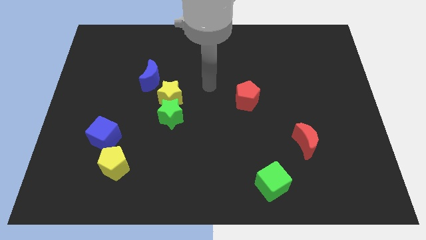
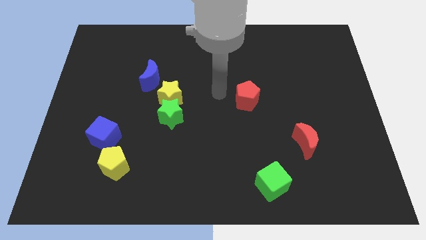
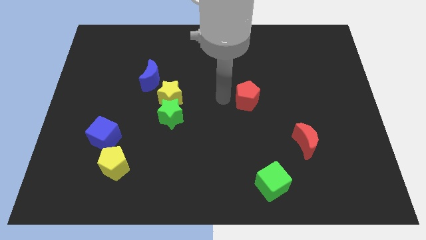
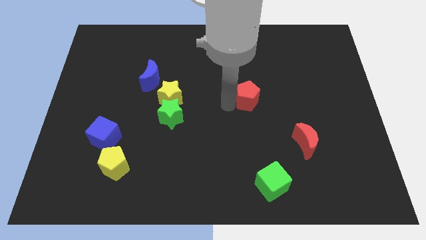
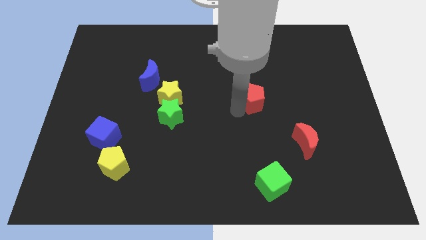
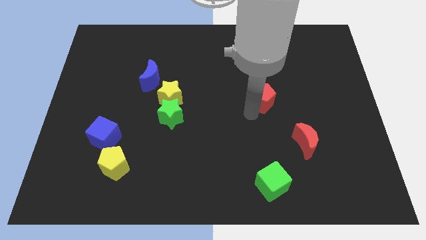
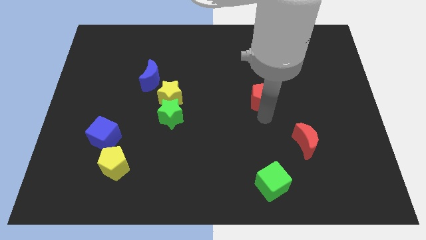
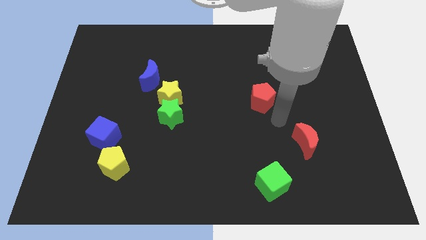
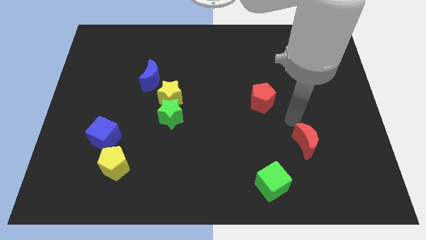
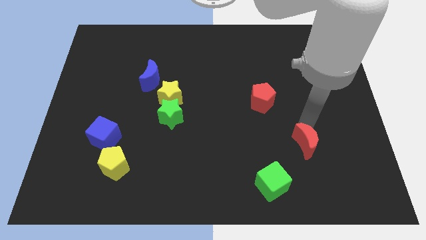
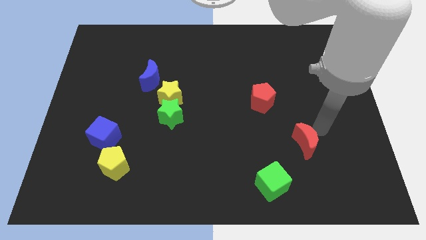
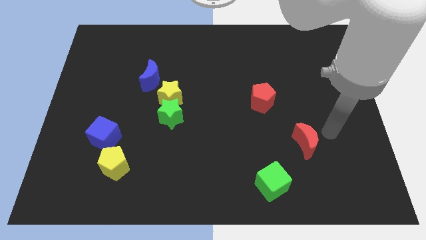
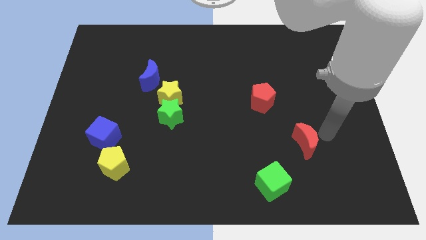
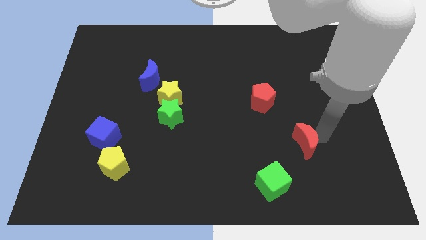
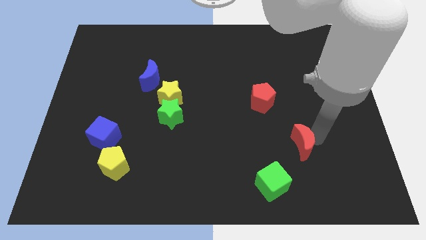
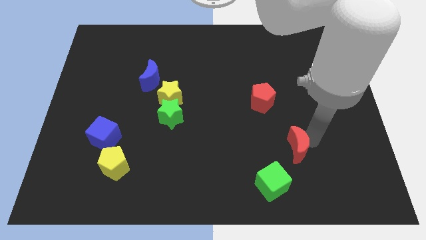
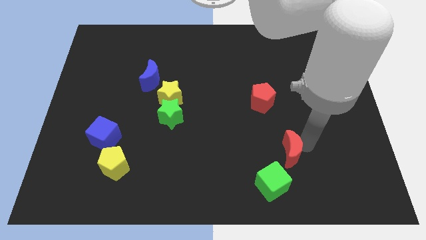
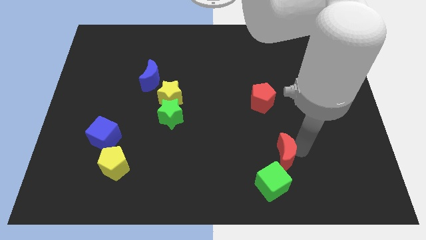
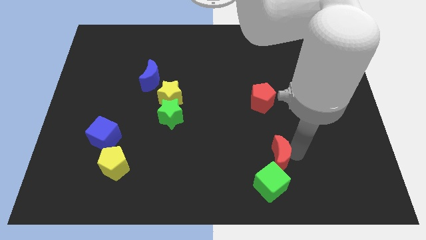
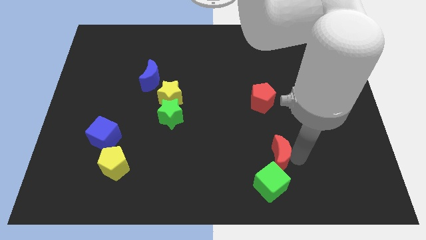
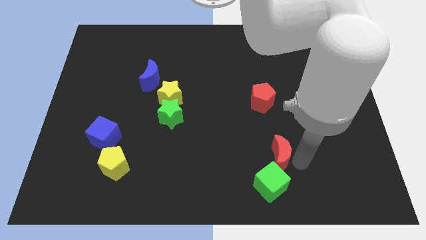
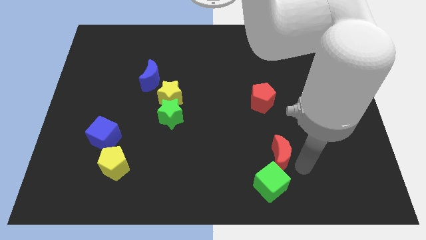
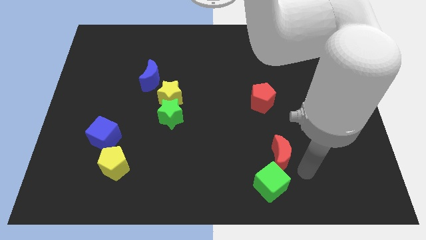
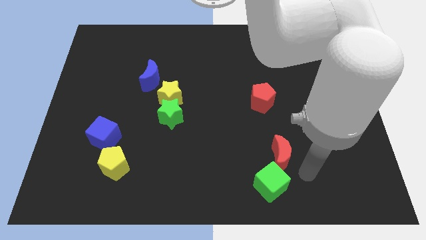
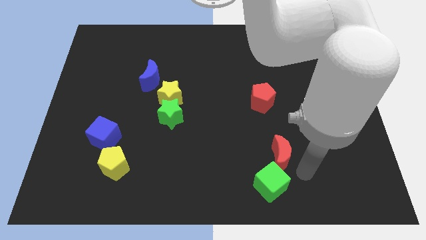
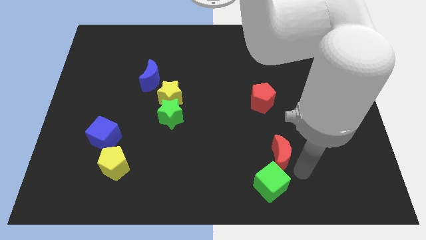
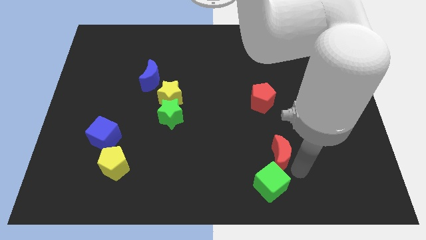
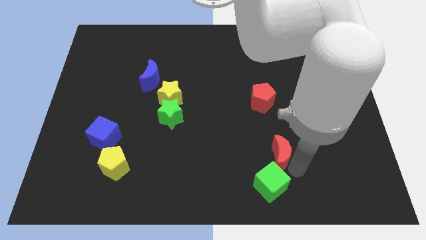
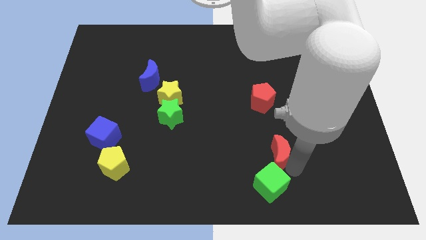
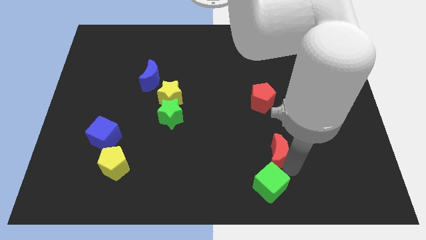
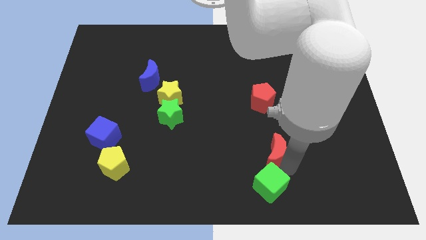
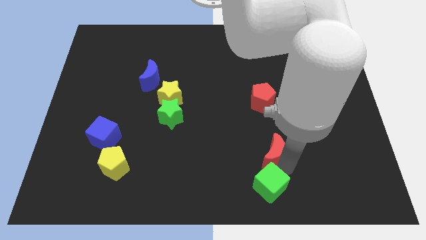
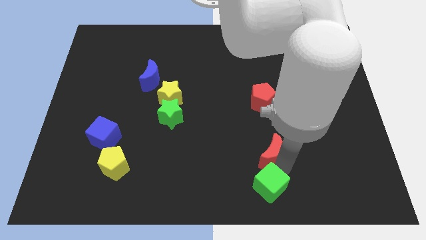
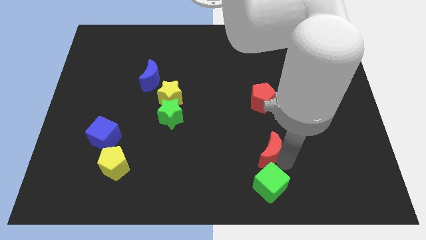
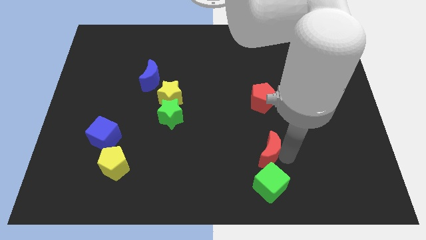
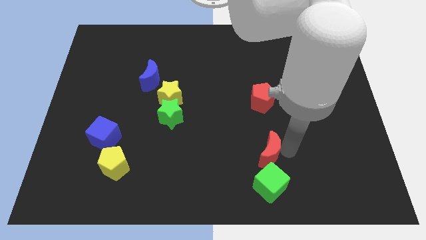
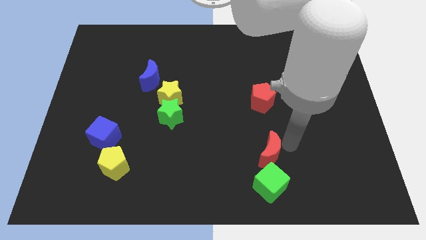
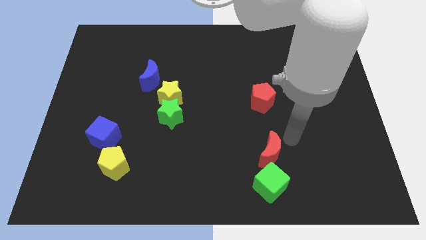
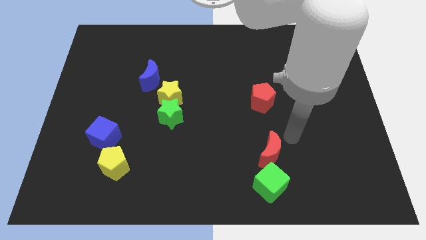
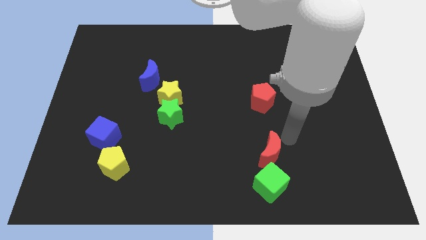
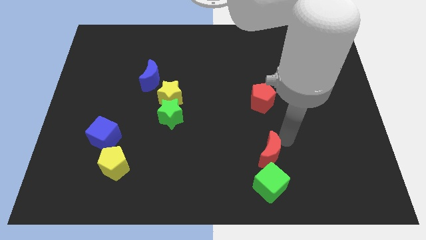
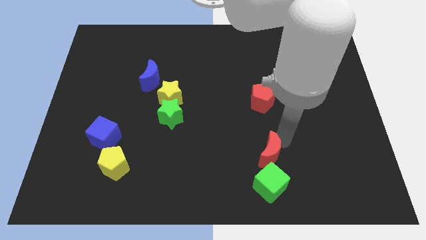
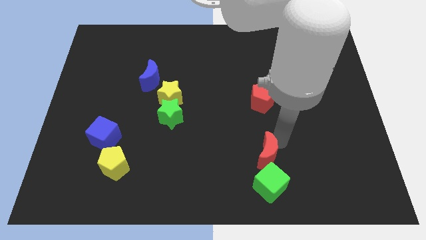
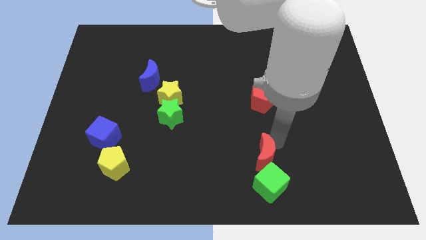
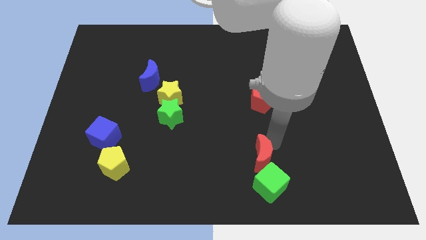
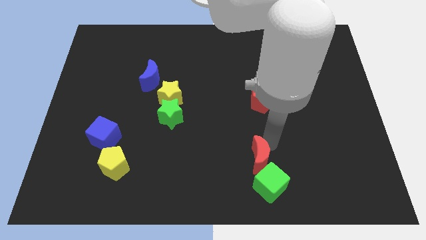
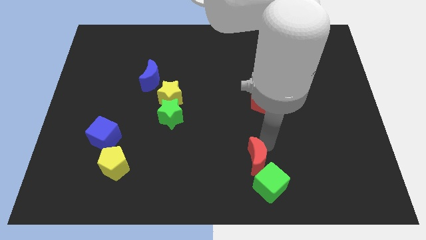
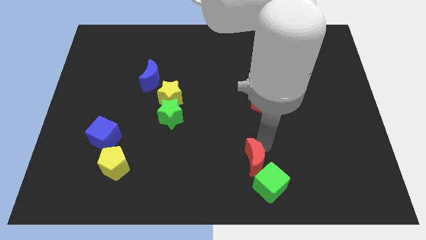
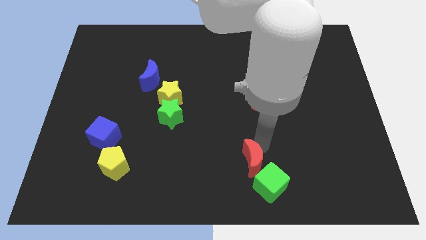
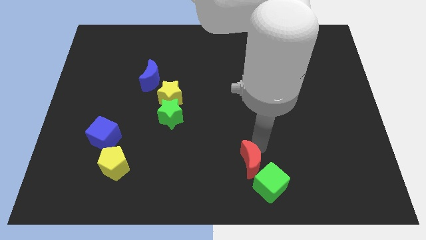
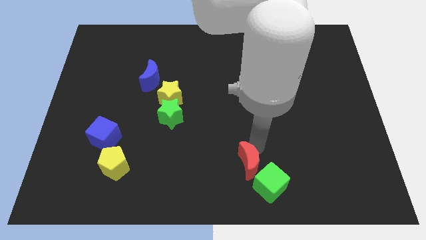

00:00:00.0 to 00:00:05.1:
slide the red moon to the bottom side

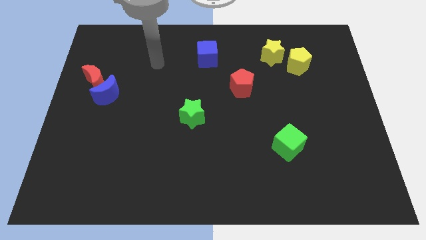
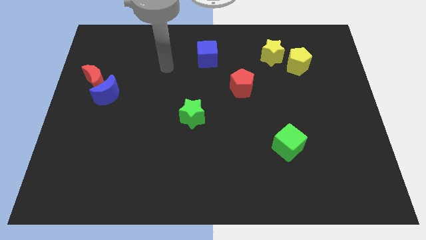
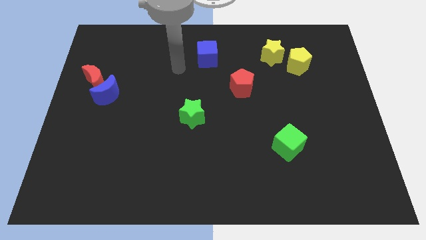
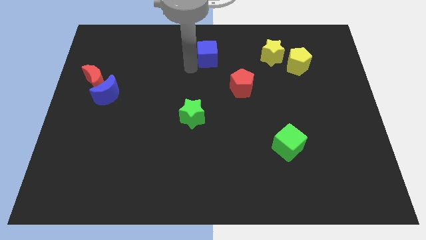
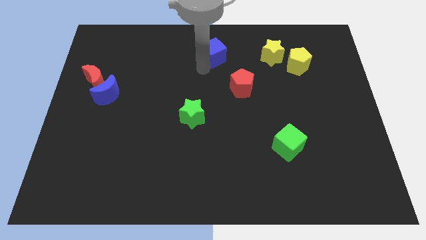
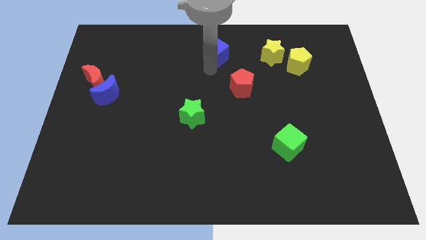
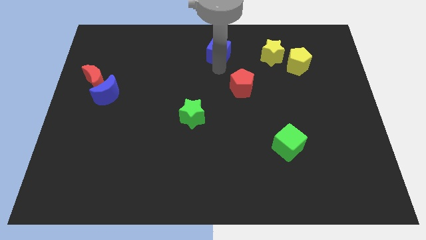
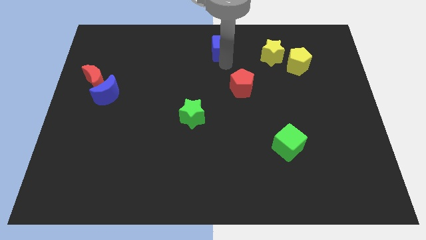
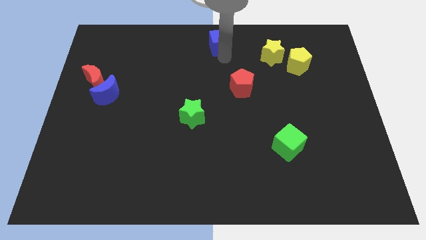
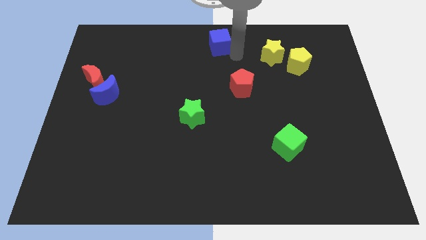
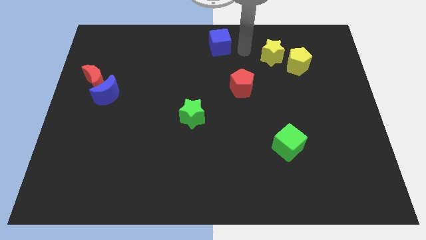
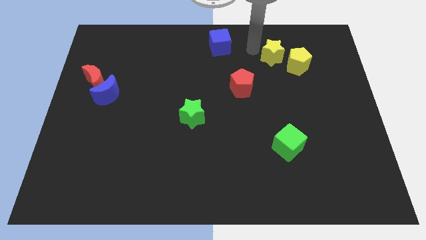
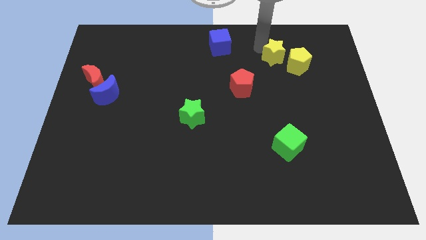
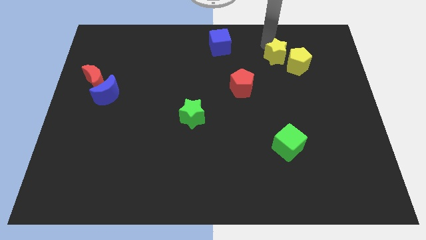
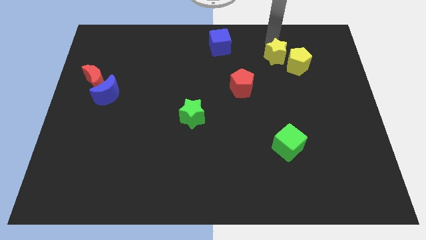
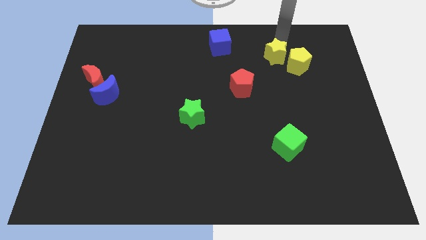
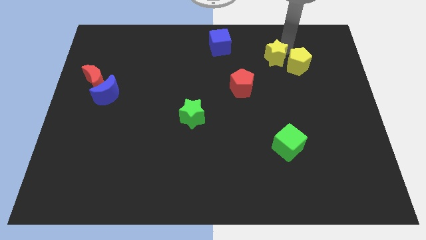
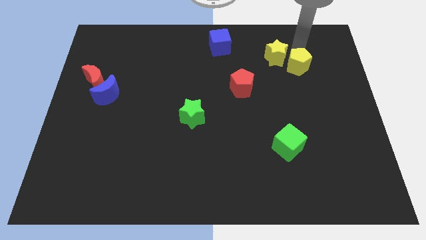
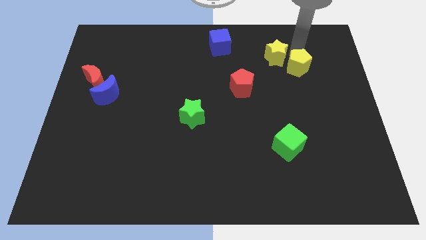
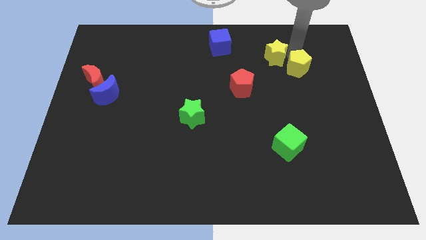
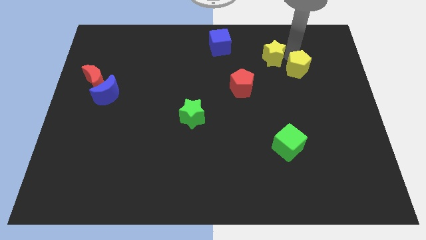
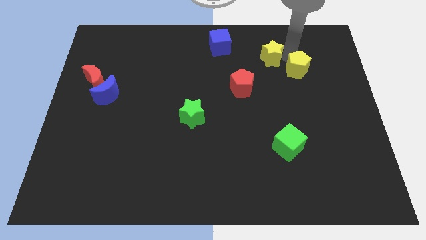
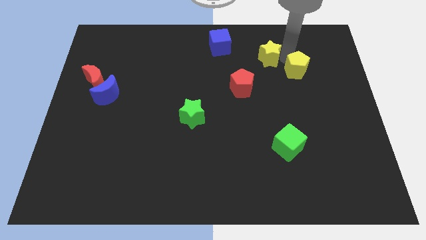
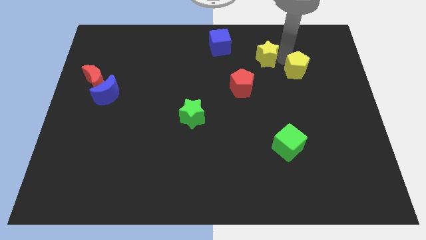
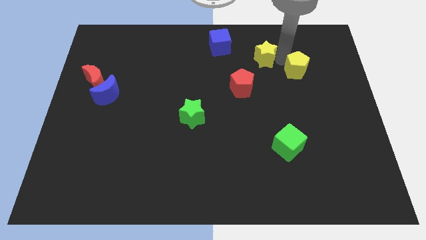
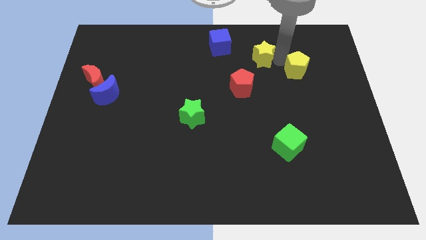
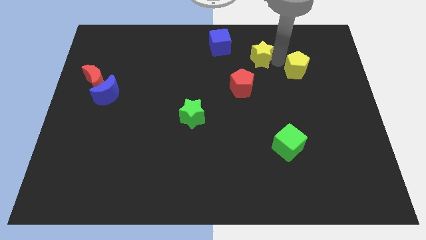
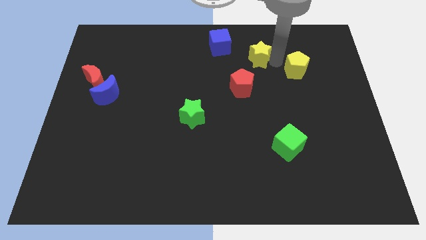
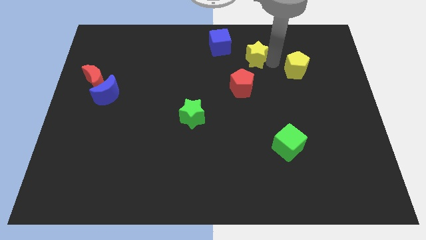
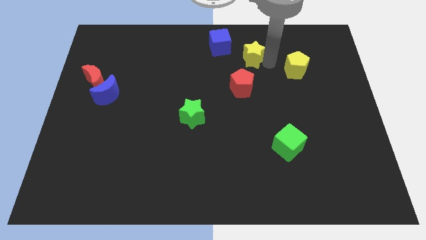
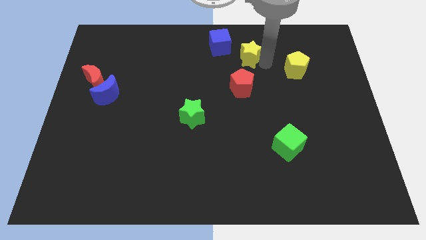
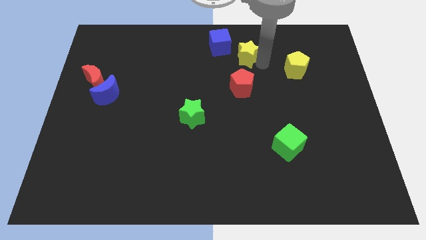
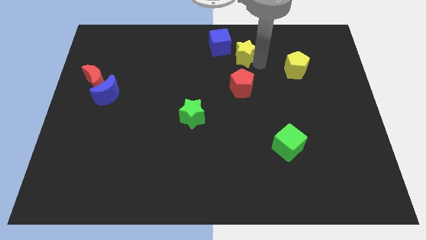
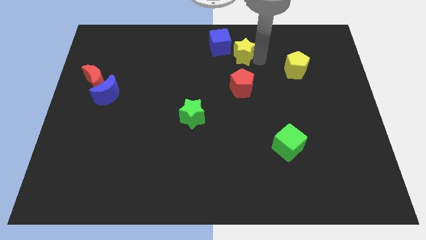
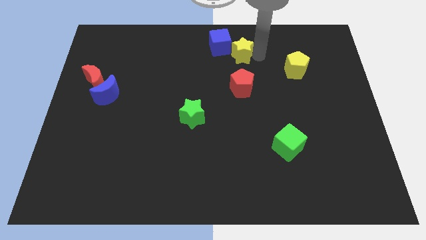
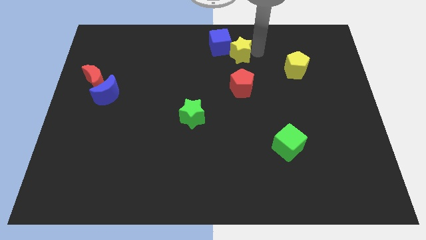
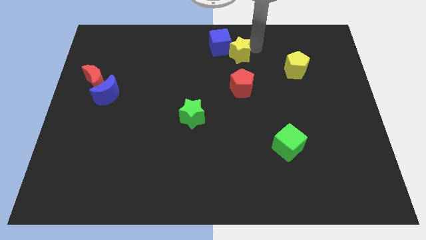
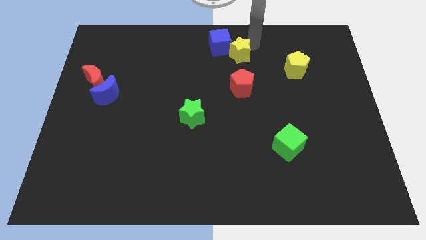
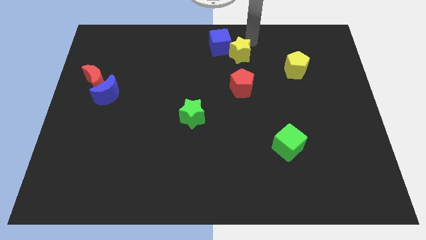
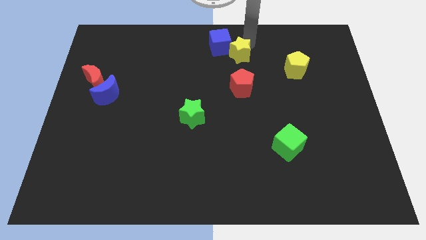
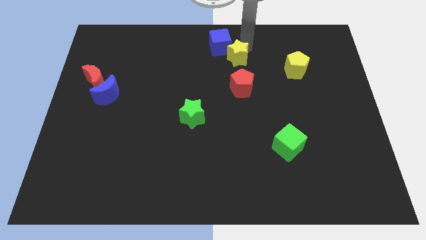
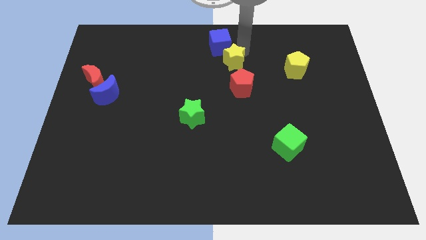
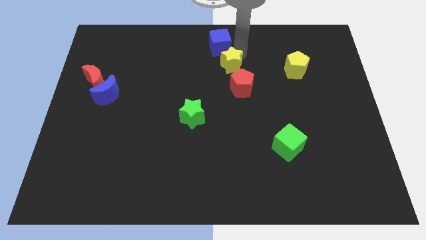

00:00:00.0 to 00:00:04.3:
move the yellow star to the center of the board
